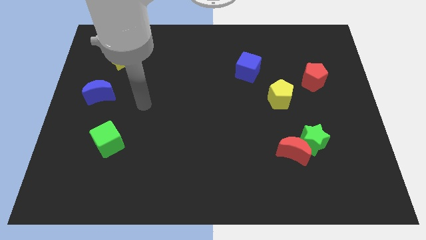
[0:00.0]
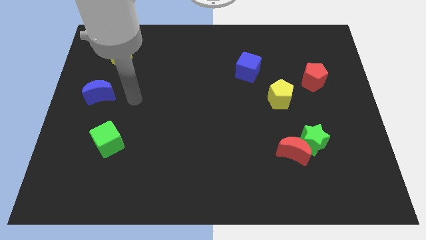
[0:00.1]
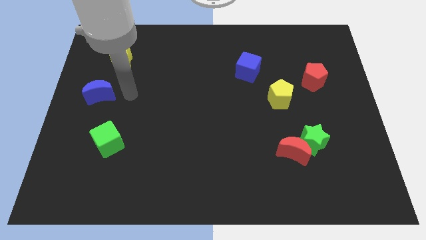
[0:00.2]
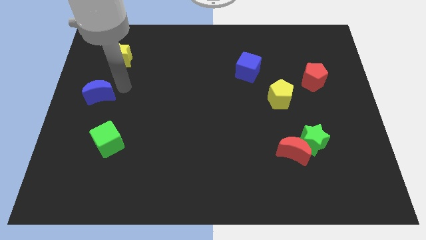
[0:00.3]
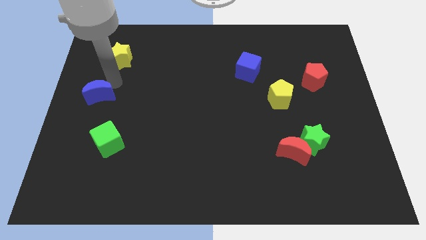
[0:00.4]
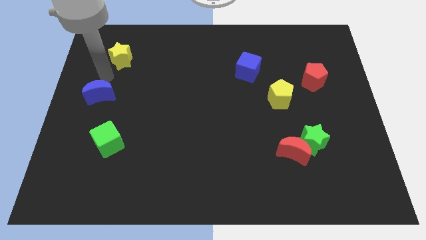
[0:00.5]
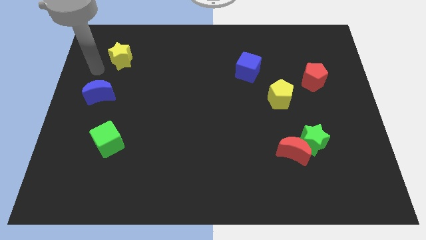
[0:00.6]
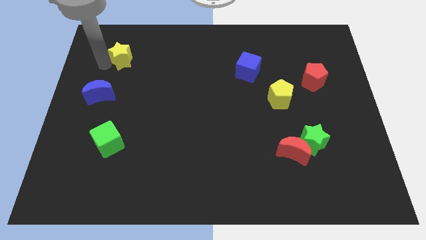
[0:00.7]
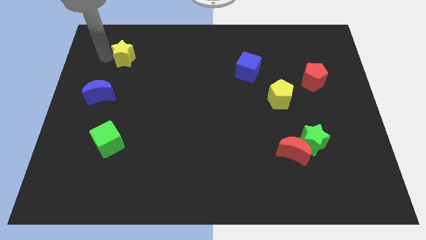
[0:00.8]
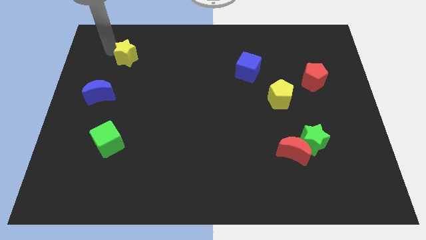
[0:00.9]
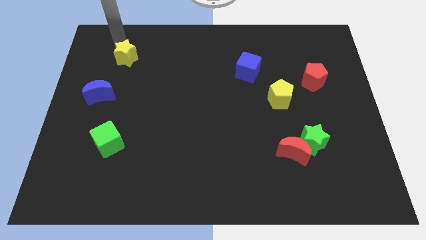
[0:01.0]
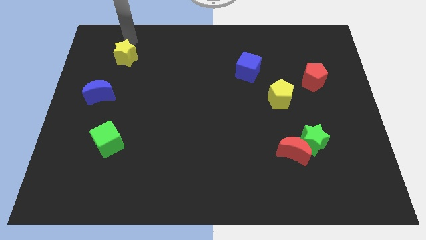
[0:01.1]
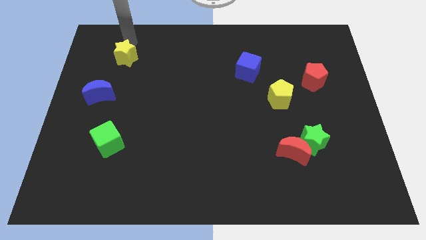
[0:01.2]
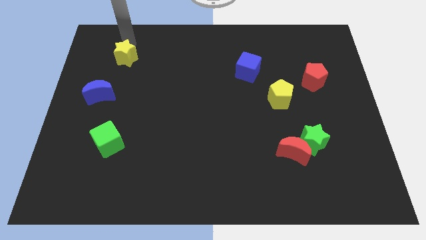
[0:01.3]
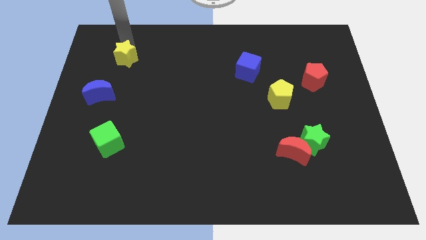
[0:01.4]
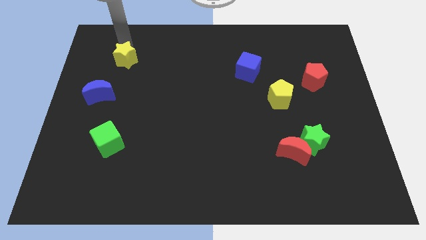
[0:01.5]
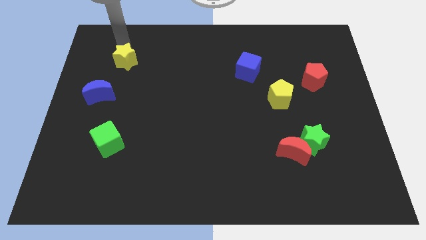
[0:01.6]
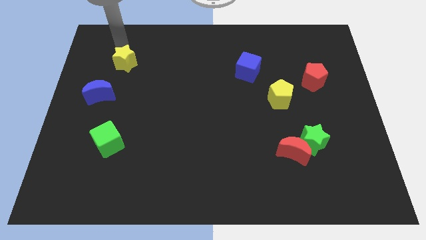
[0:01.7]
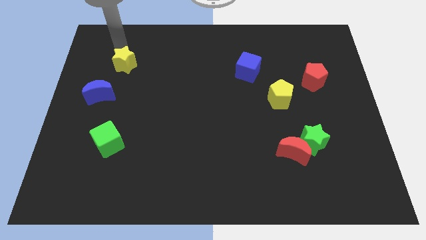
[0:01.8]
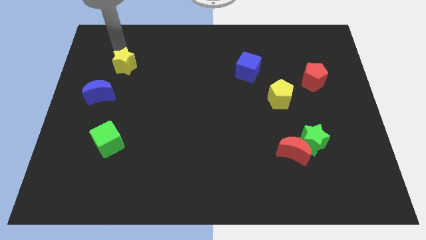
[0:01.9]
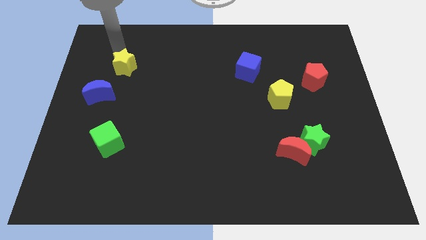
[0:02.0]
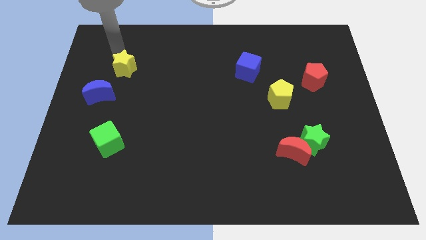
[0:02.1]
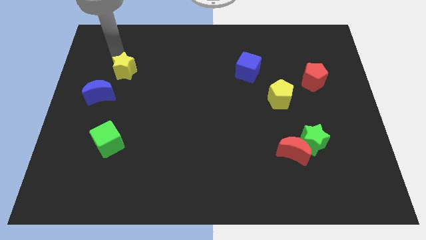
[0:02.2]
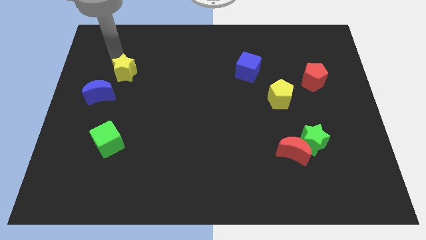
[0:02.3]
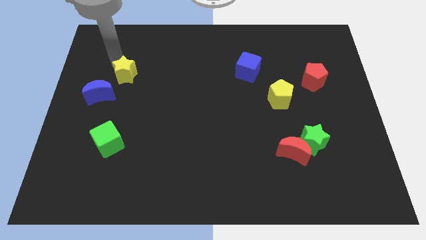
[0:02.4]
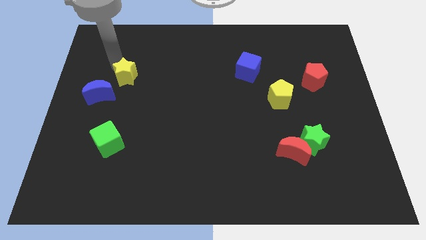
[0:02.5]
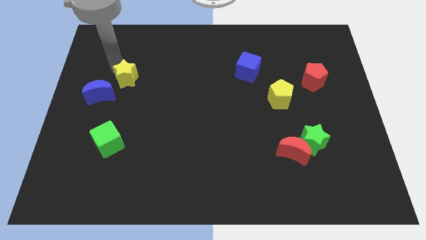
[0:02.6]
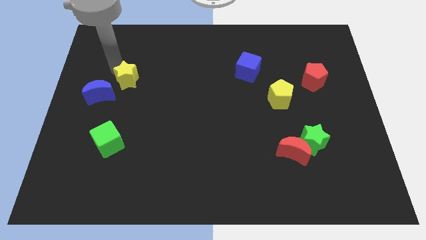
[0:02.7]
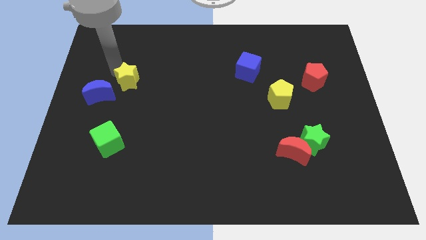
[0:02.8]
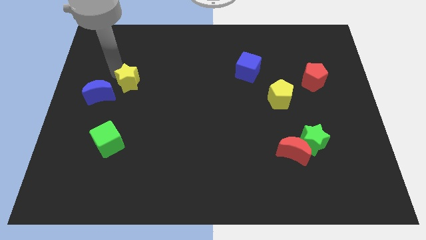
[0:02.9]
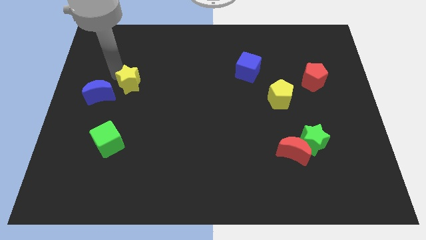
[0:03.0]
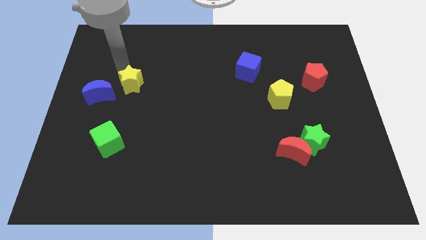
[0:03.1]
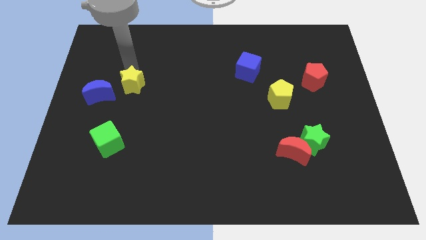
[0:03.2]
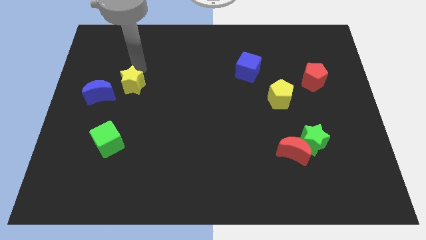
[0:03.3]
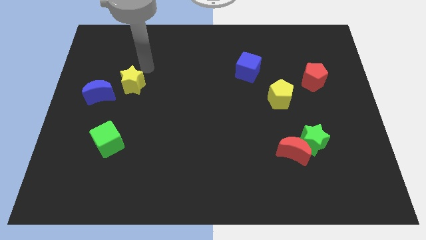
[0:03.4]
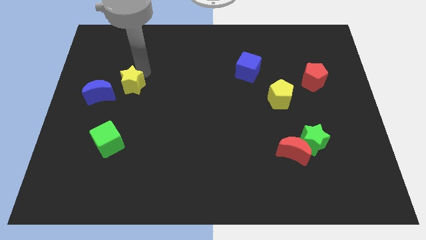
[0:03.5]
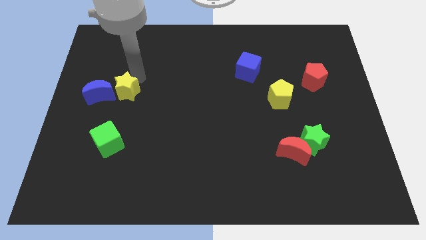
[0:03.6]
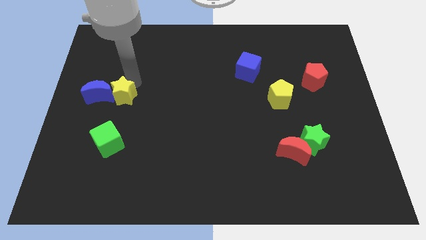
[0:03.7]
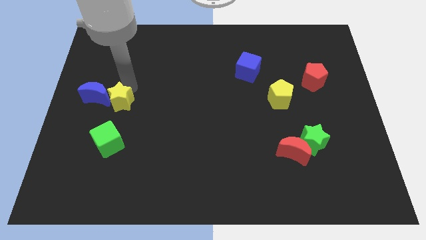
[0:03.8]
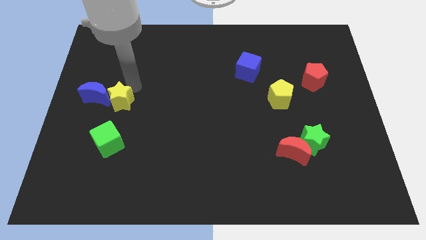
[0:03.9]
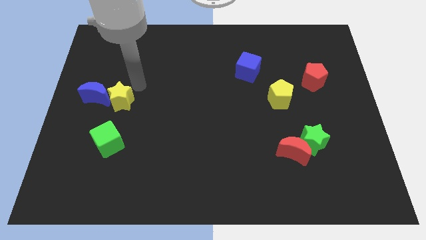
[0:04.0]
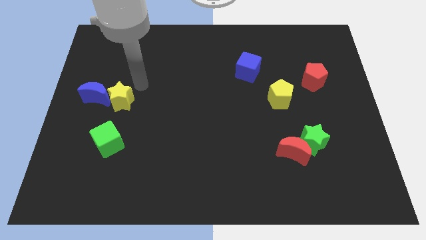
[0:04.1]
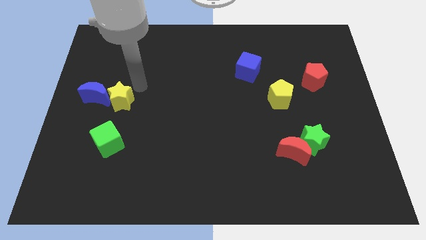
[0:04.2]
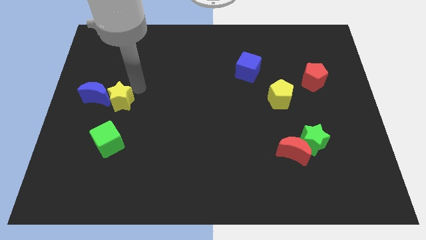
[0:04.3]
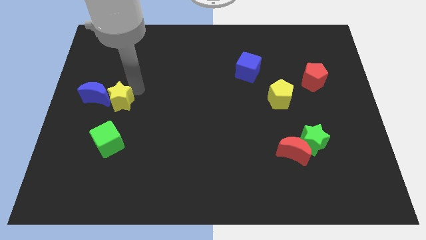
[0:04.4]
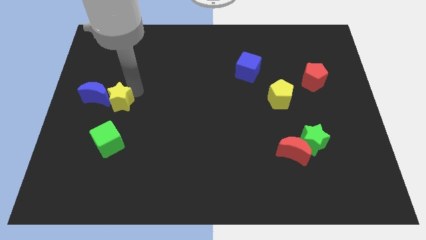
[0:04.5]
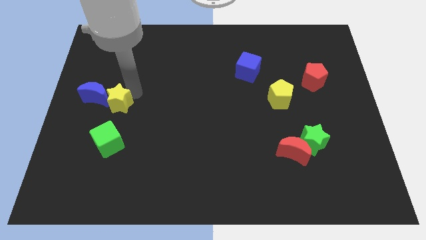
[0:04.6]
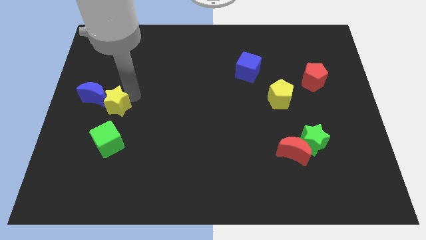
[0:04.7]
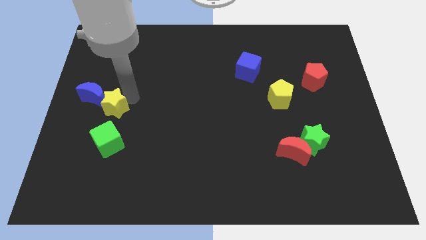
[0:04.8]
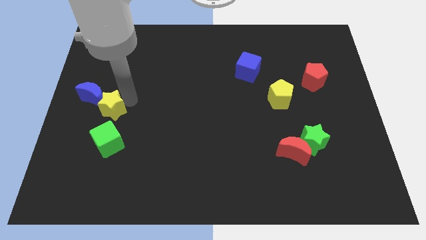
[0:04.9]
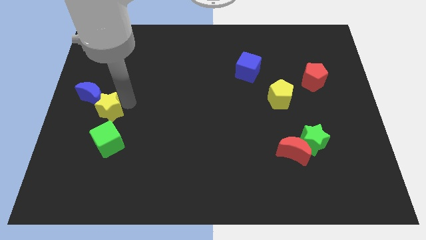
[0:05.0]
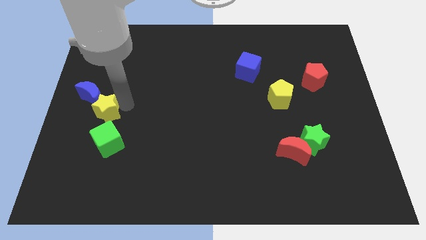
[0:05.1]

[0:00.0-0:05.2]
slide the yellow star diagonally up and to the left of the green cube

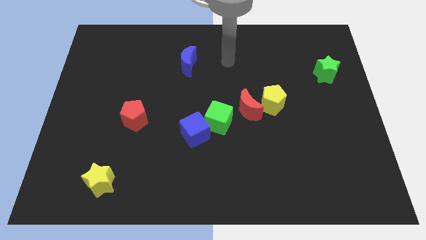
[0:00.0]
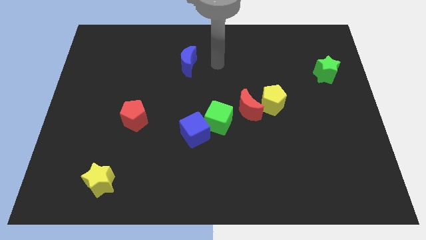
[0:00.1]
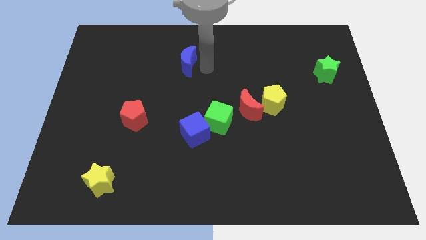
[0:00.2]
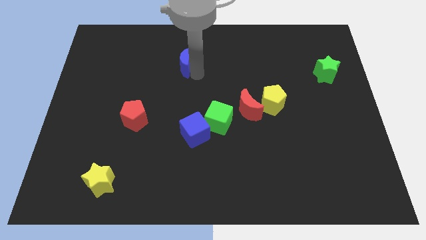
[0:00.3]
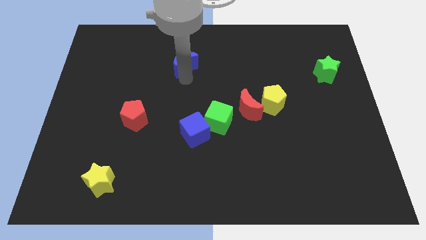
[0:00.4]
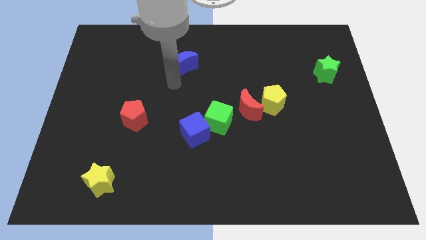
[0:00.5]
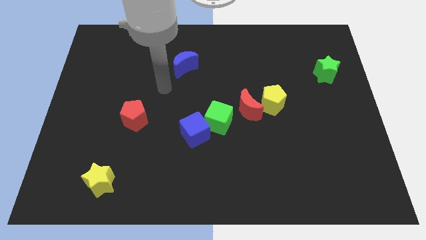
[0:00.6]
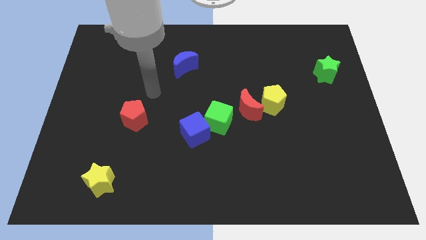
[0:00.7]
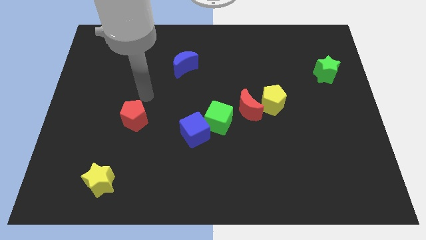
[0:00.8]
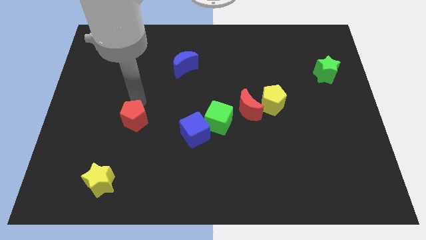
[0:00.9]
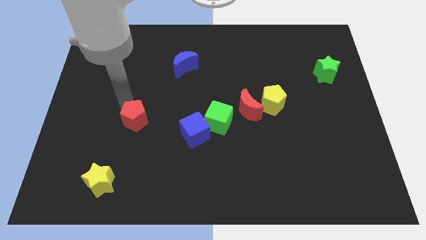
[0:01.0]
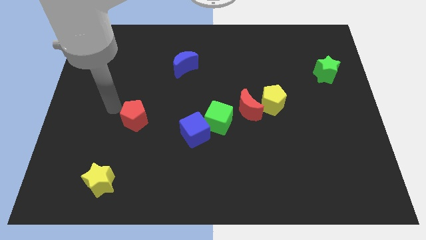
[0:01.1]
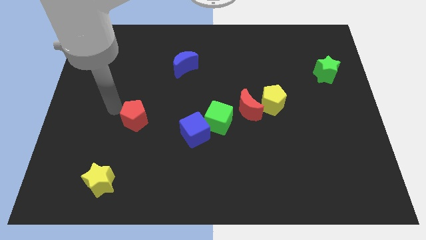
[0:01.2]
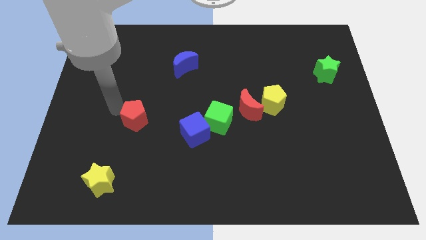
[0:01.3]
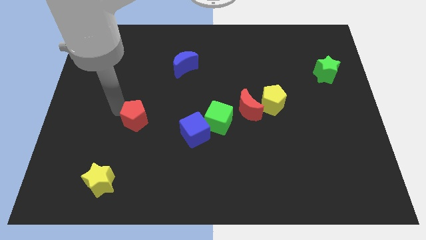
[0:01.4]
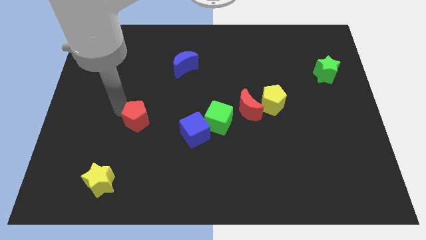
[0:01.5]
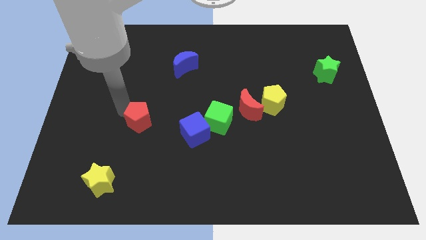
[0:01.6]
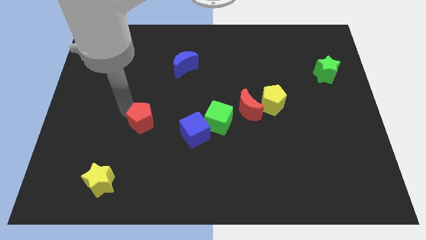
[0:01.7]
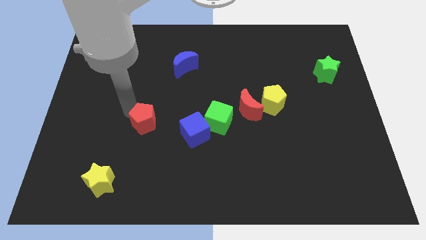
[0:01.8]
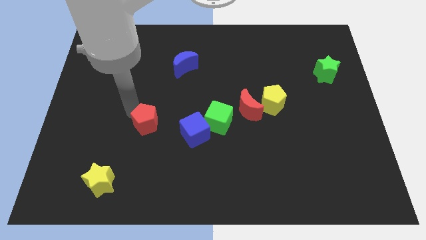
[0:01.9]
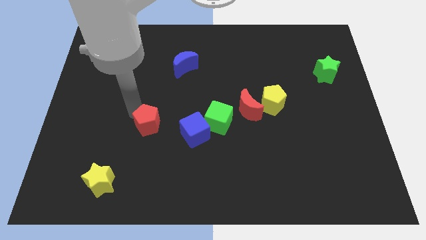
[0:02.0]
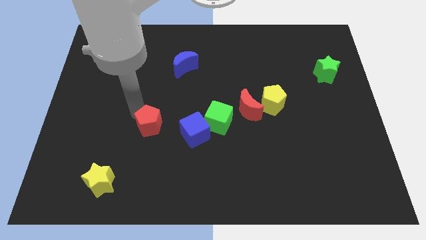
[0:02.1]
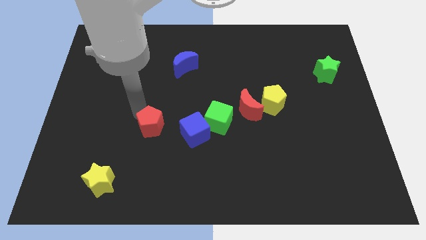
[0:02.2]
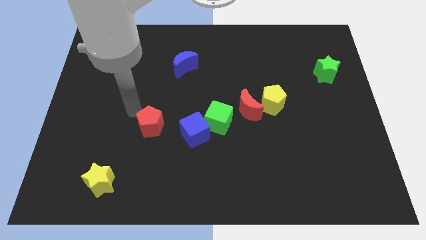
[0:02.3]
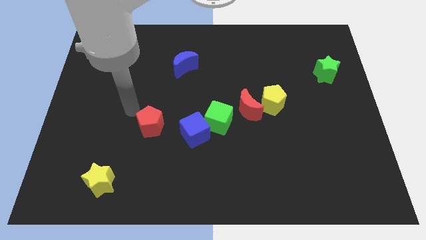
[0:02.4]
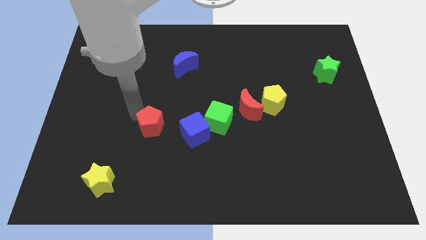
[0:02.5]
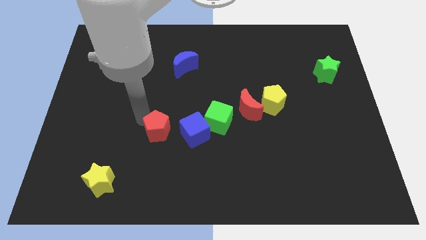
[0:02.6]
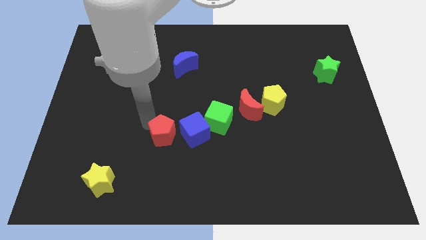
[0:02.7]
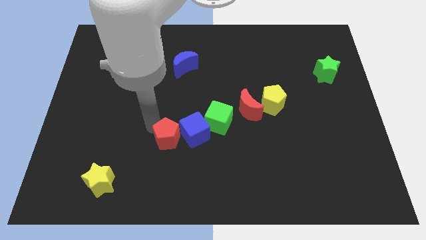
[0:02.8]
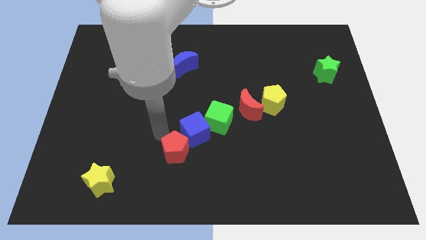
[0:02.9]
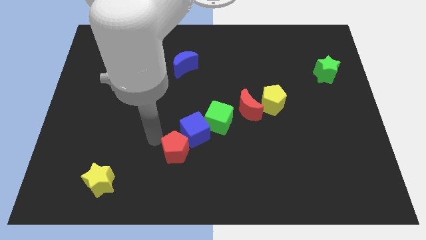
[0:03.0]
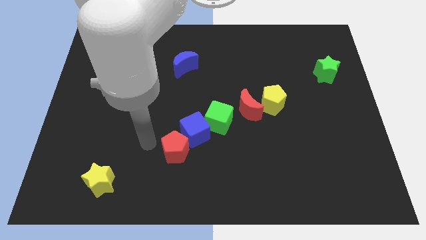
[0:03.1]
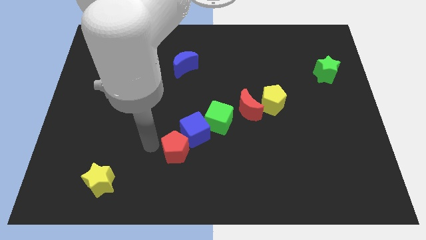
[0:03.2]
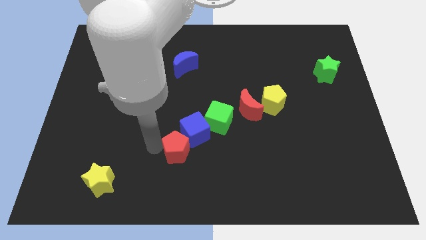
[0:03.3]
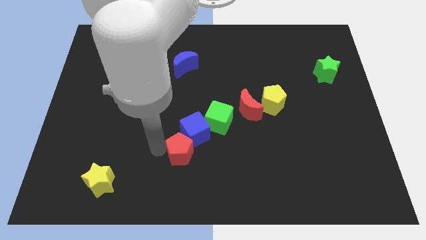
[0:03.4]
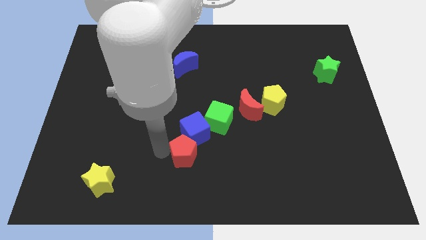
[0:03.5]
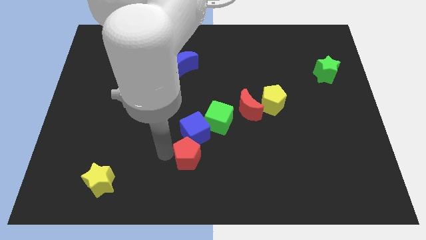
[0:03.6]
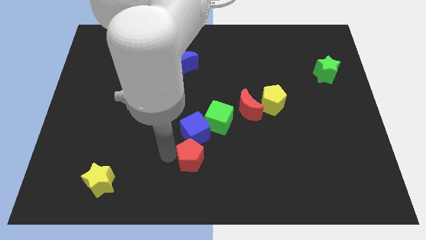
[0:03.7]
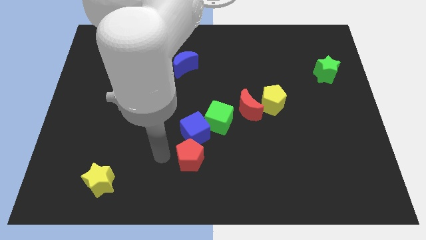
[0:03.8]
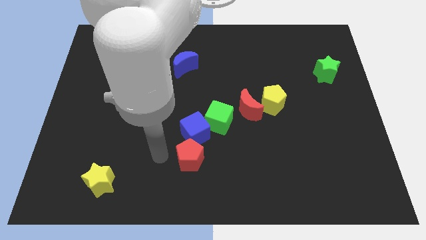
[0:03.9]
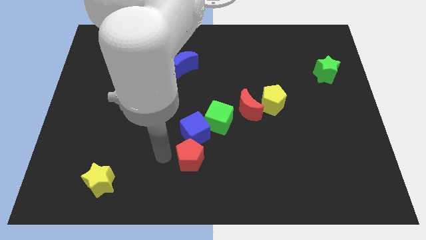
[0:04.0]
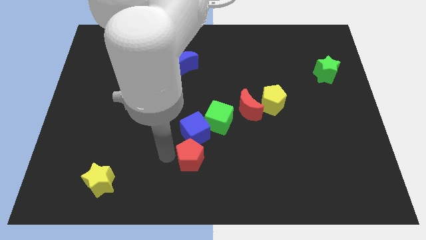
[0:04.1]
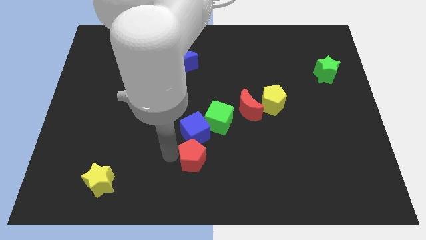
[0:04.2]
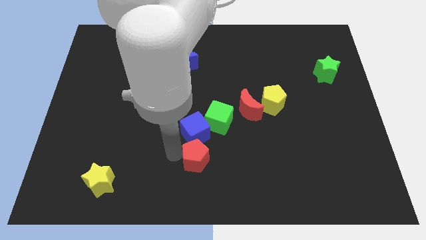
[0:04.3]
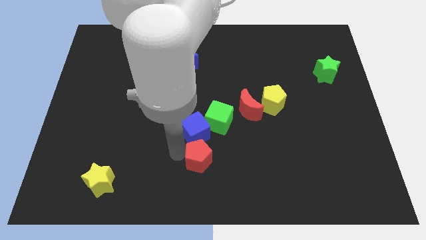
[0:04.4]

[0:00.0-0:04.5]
move the red pentagon to the bottom side of the green cube
